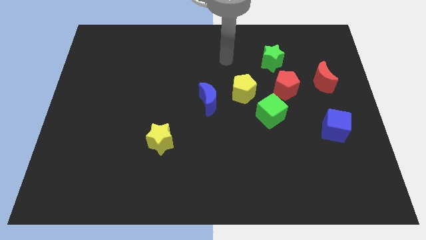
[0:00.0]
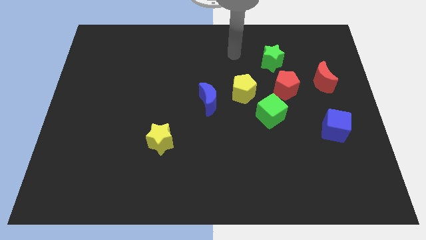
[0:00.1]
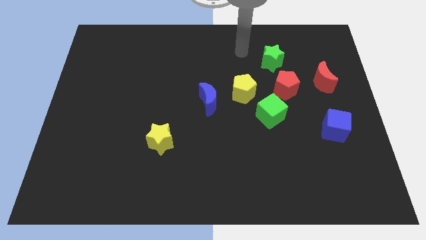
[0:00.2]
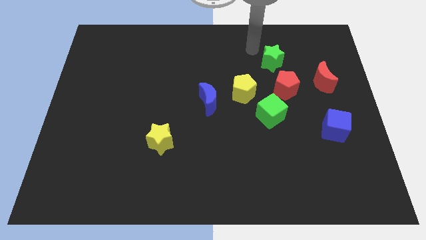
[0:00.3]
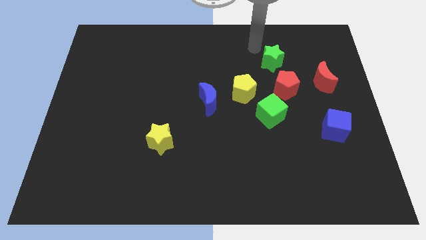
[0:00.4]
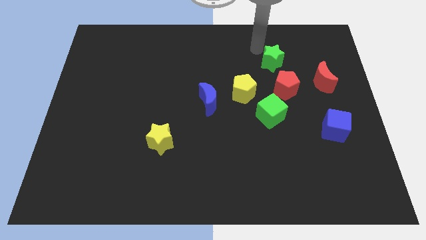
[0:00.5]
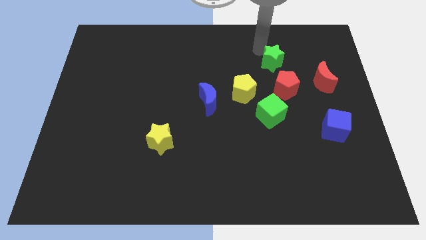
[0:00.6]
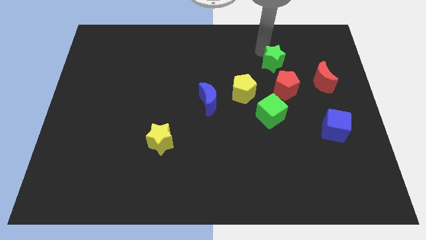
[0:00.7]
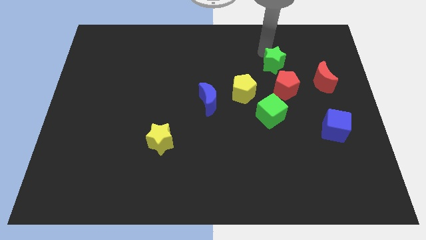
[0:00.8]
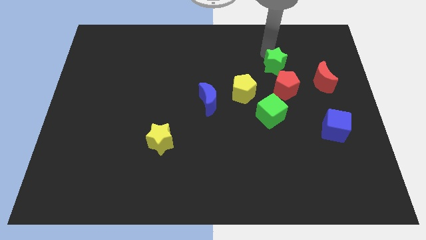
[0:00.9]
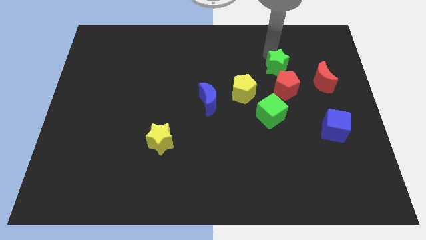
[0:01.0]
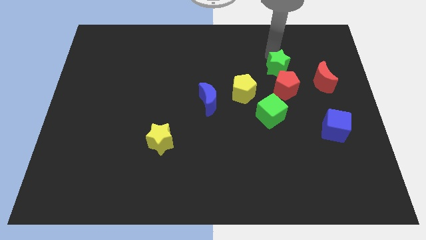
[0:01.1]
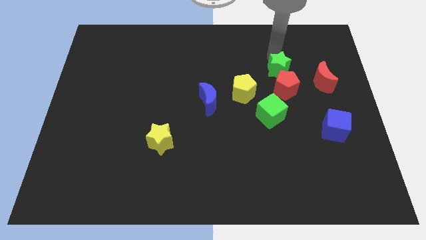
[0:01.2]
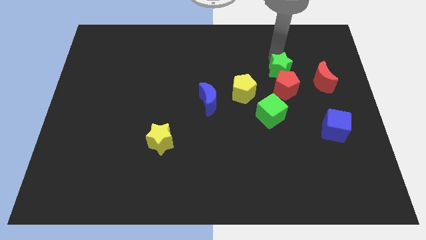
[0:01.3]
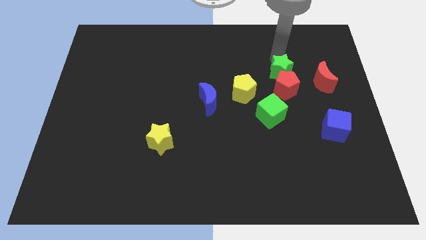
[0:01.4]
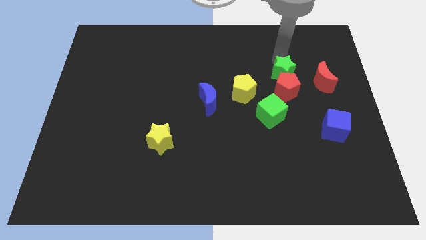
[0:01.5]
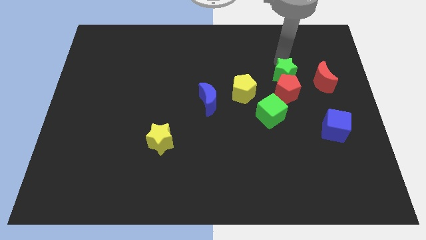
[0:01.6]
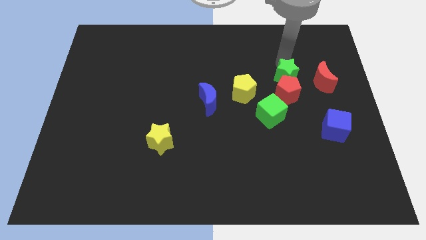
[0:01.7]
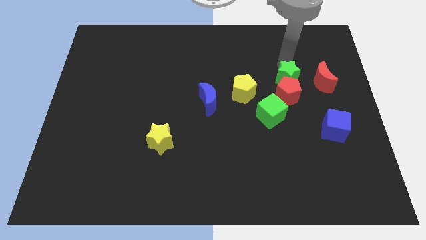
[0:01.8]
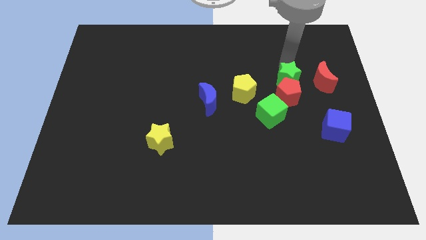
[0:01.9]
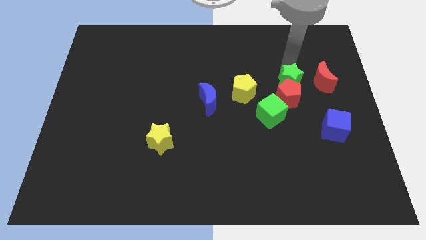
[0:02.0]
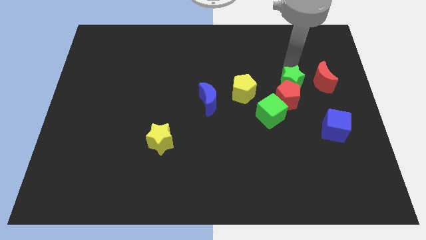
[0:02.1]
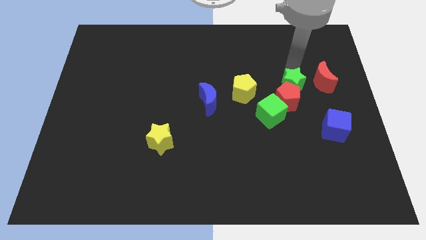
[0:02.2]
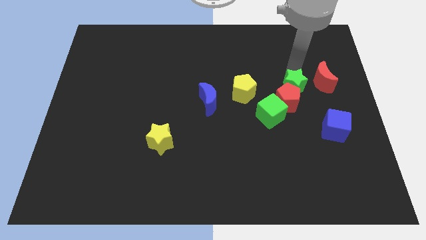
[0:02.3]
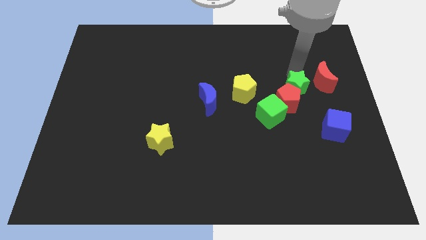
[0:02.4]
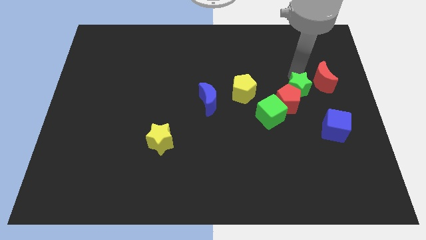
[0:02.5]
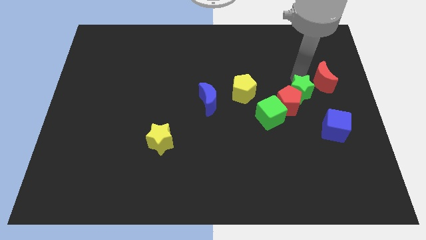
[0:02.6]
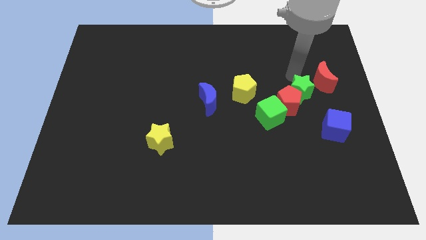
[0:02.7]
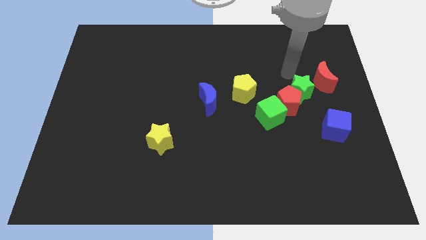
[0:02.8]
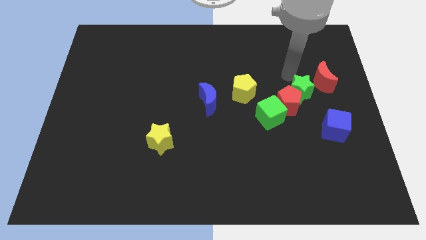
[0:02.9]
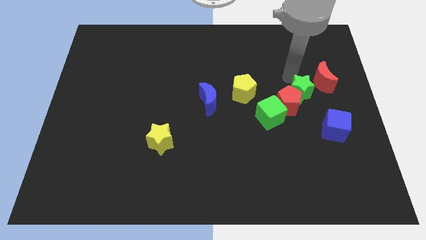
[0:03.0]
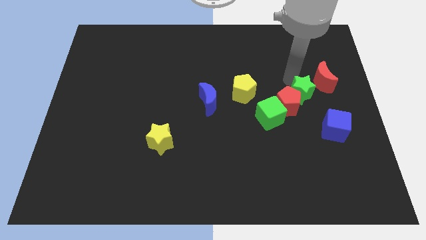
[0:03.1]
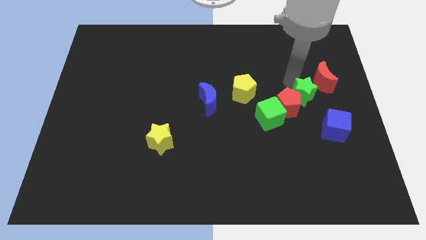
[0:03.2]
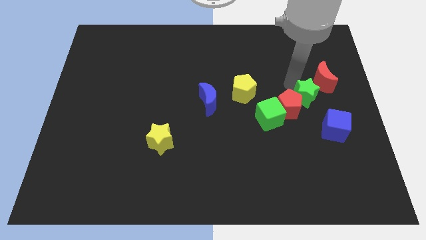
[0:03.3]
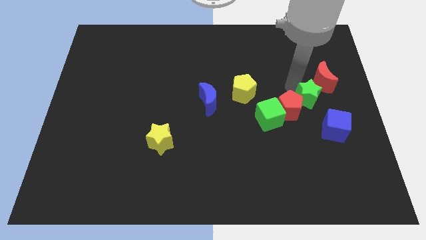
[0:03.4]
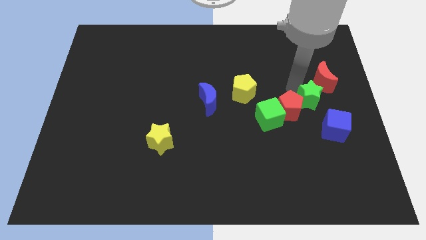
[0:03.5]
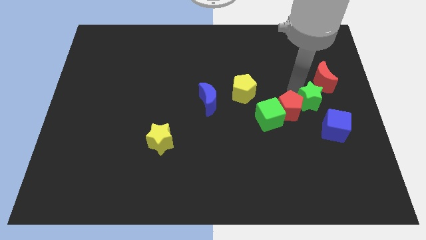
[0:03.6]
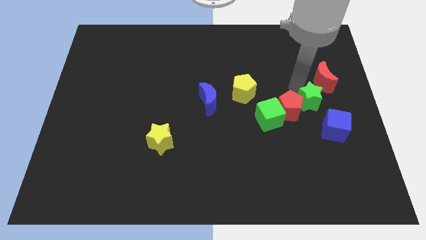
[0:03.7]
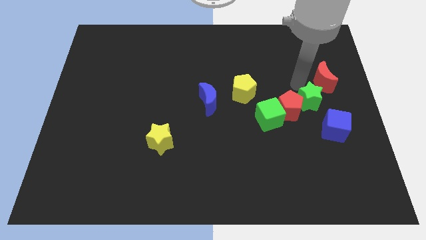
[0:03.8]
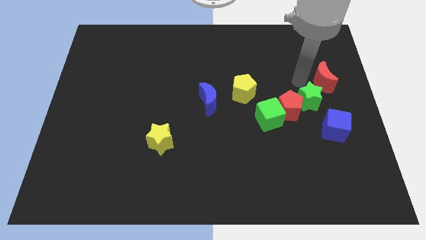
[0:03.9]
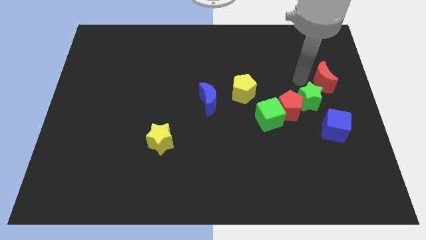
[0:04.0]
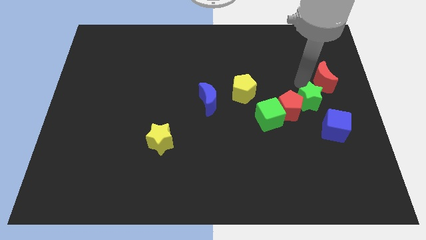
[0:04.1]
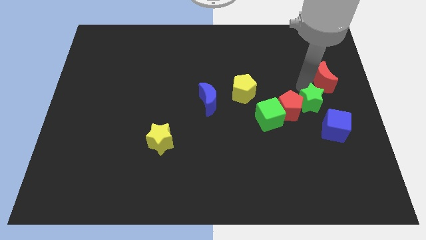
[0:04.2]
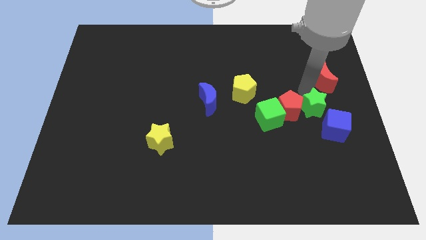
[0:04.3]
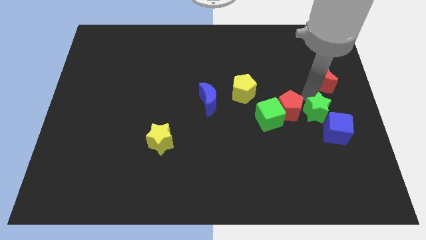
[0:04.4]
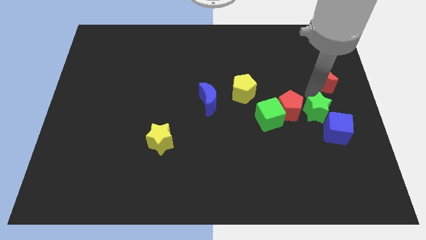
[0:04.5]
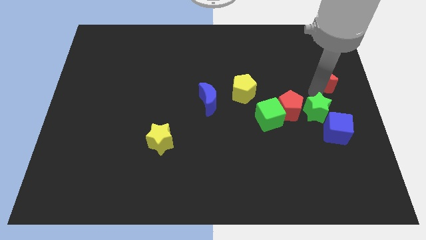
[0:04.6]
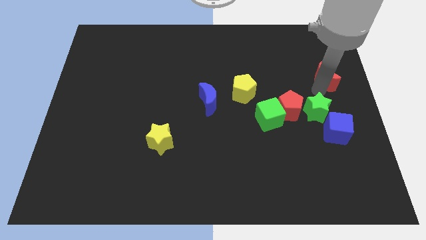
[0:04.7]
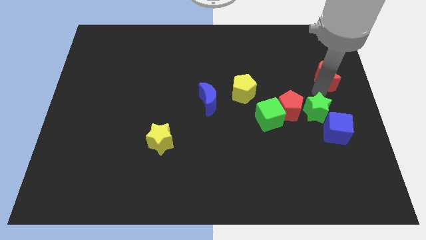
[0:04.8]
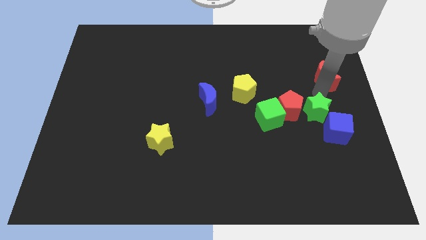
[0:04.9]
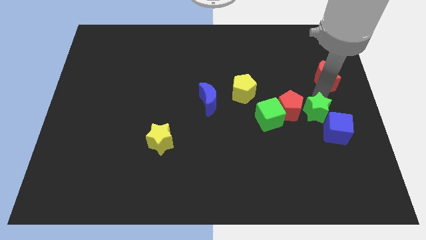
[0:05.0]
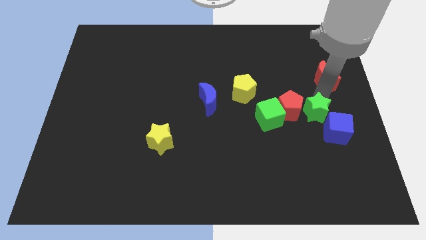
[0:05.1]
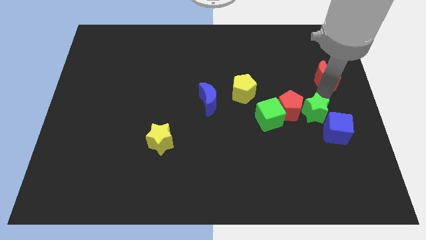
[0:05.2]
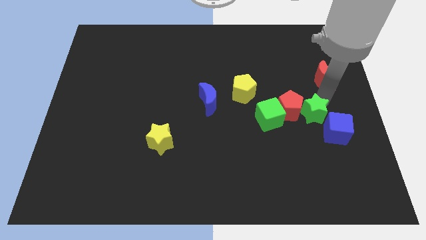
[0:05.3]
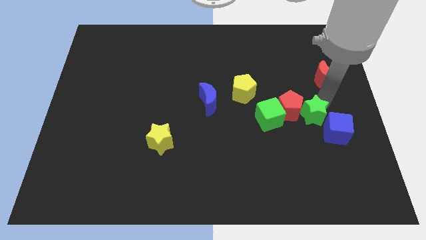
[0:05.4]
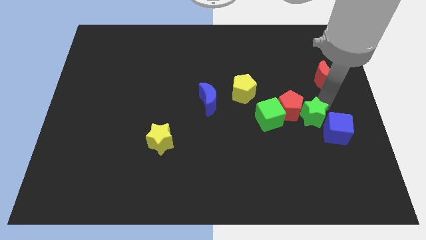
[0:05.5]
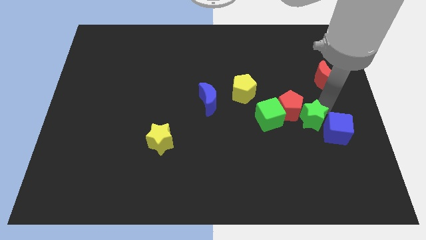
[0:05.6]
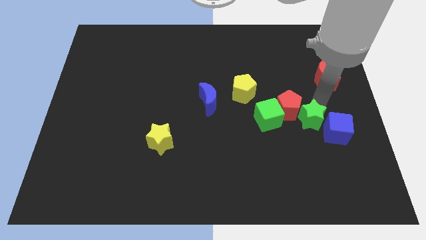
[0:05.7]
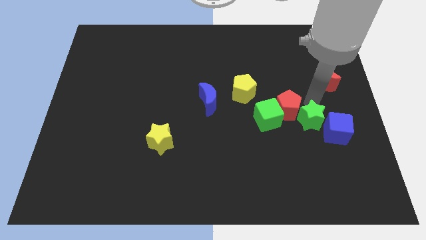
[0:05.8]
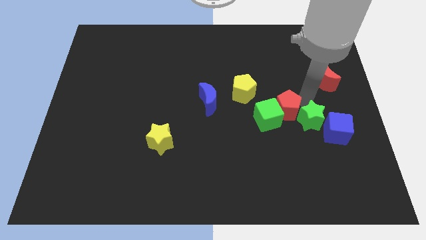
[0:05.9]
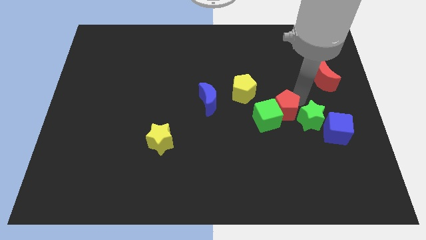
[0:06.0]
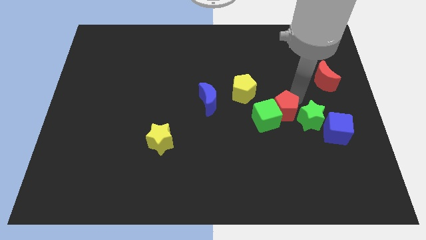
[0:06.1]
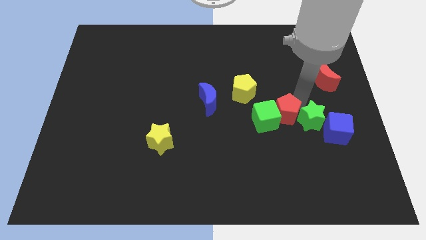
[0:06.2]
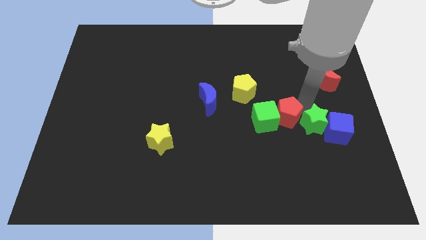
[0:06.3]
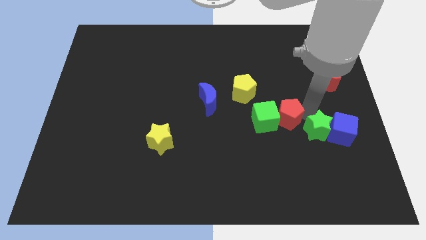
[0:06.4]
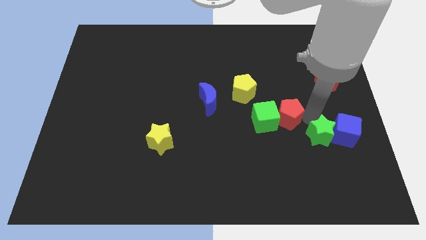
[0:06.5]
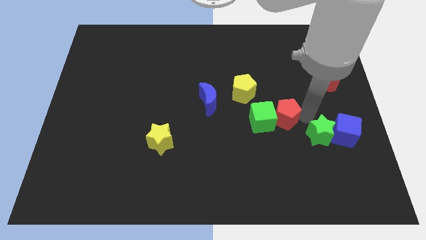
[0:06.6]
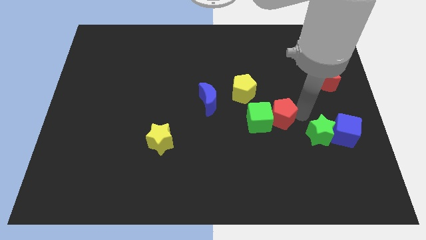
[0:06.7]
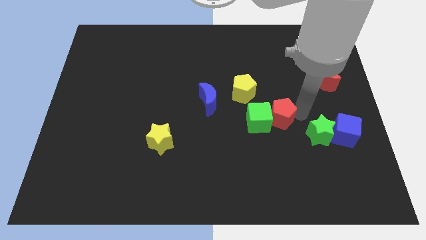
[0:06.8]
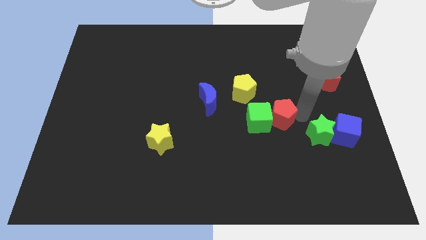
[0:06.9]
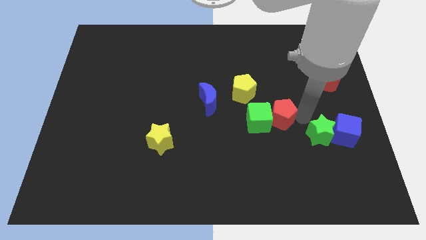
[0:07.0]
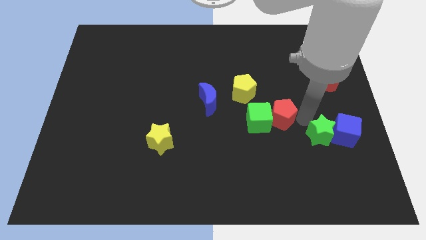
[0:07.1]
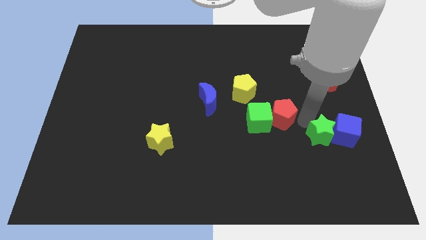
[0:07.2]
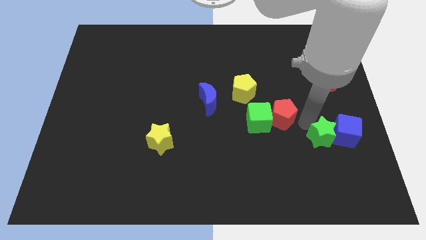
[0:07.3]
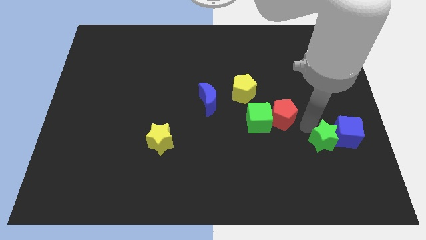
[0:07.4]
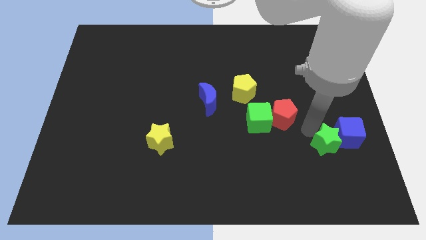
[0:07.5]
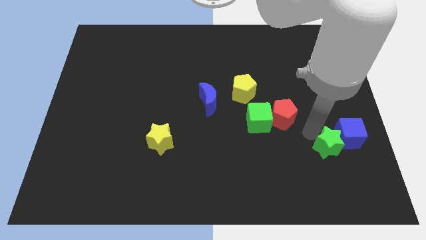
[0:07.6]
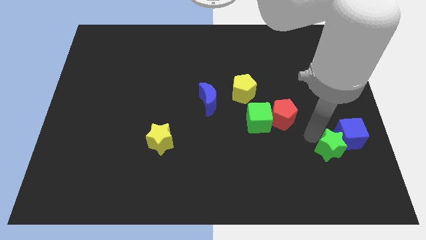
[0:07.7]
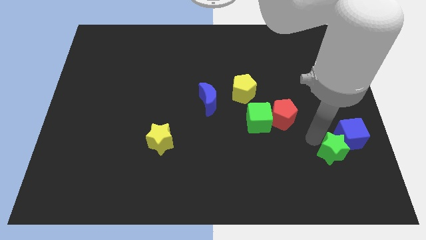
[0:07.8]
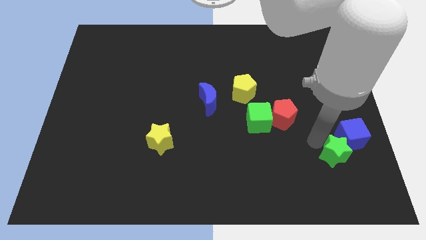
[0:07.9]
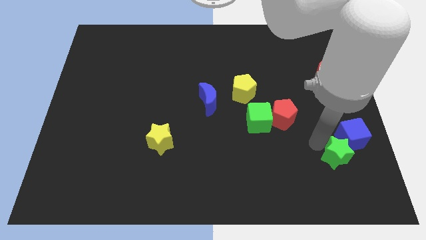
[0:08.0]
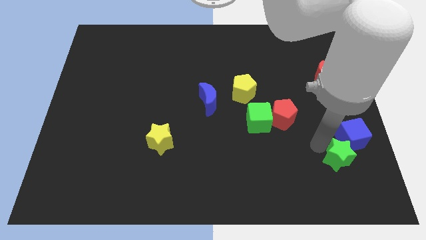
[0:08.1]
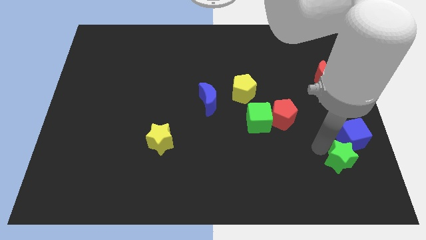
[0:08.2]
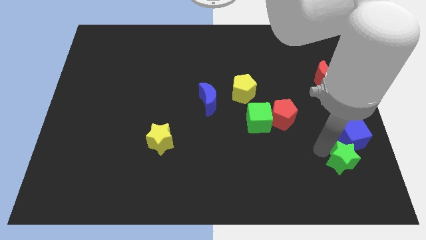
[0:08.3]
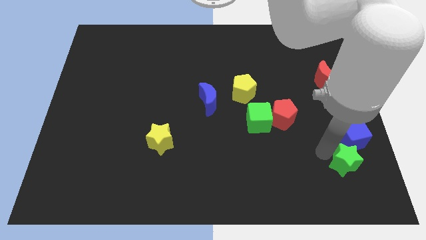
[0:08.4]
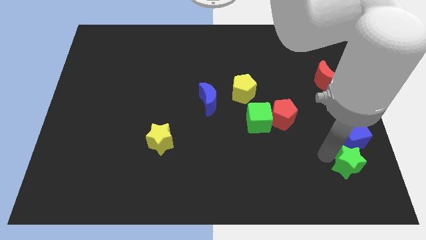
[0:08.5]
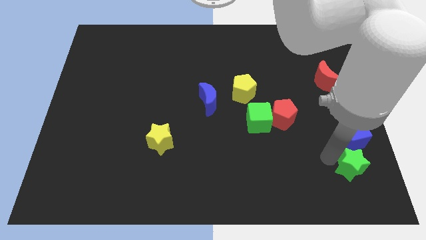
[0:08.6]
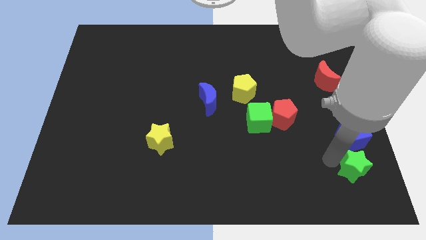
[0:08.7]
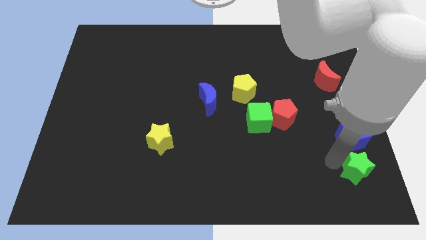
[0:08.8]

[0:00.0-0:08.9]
put the green star to the bottom right of the board
